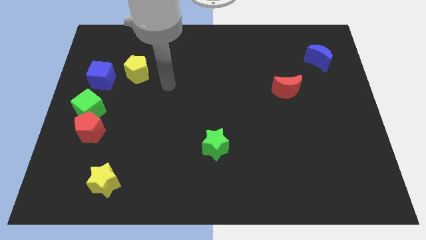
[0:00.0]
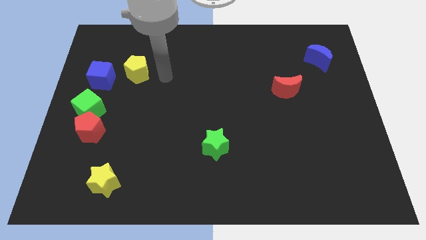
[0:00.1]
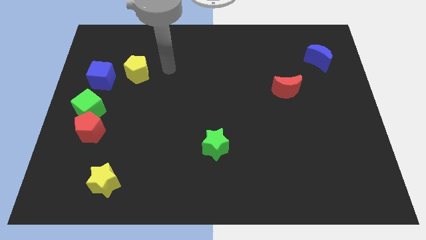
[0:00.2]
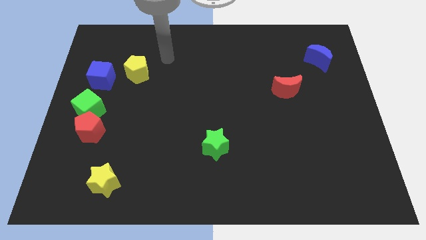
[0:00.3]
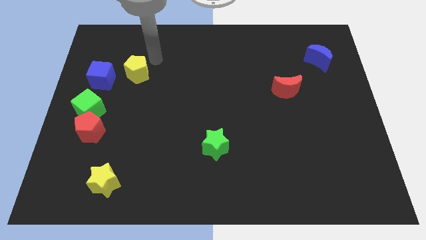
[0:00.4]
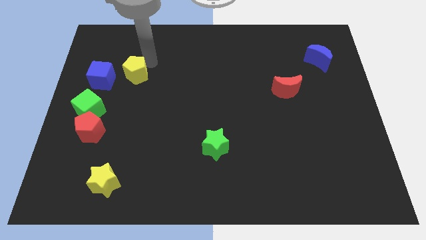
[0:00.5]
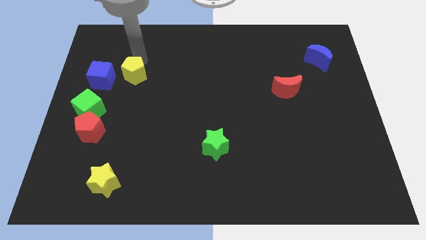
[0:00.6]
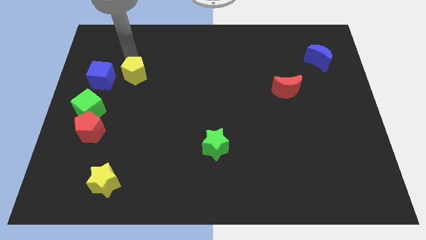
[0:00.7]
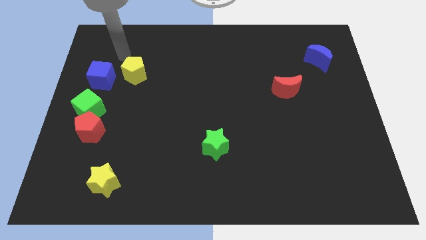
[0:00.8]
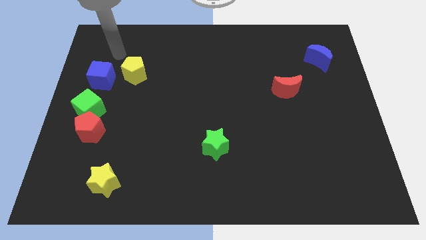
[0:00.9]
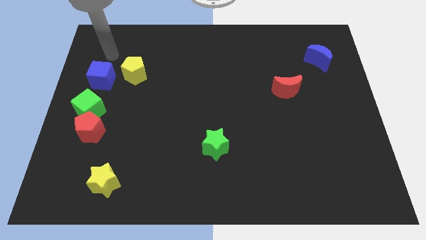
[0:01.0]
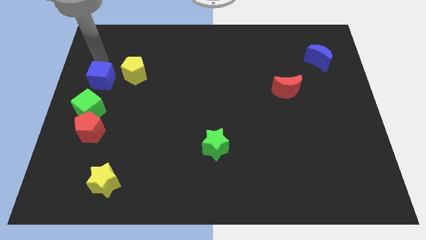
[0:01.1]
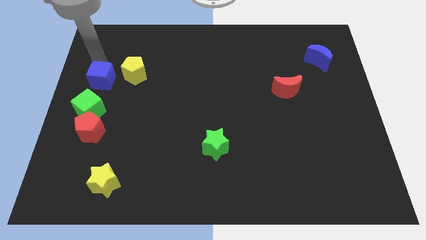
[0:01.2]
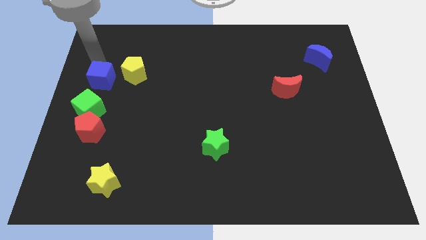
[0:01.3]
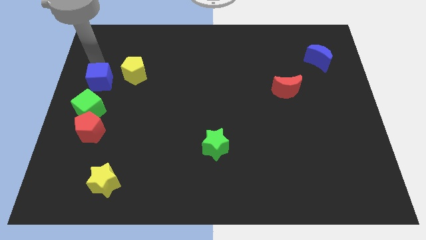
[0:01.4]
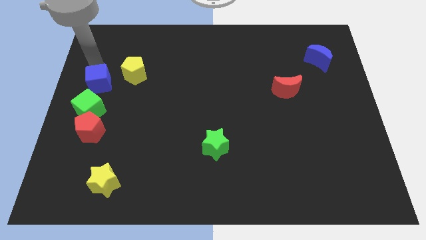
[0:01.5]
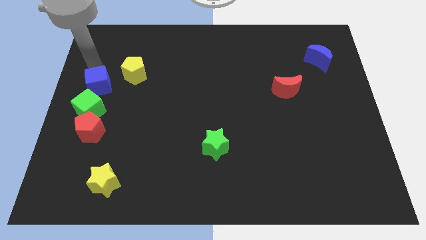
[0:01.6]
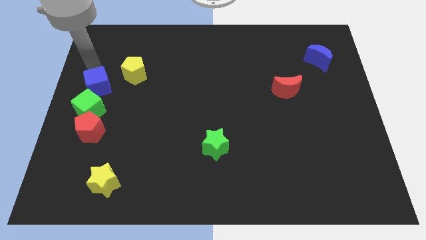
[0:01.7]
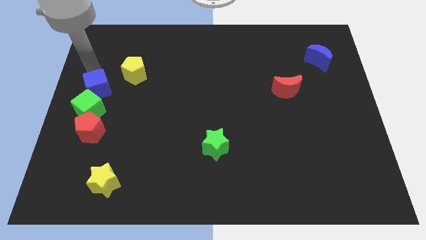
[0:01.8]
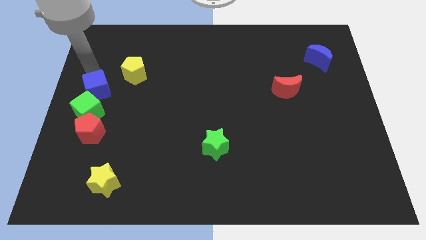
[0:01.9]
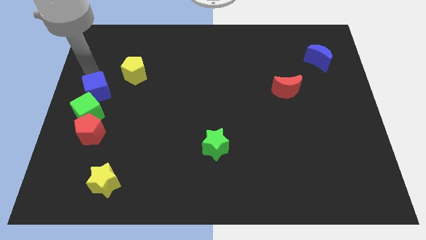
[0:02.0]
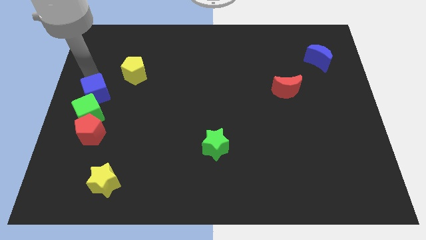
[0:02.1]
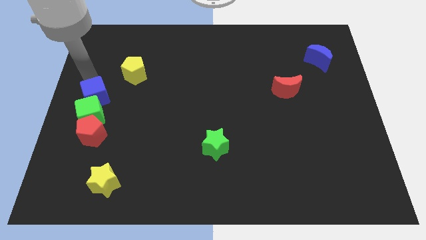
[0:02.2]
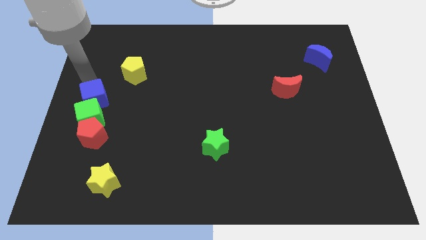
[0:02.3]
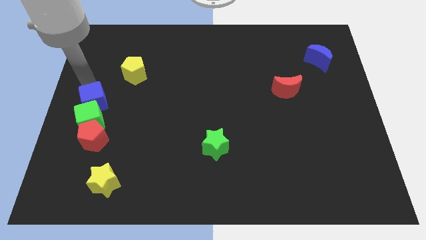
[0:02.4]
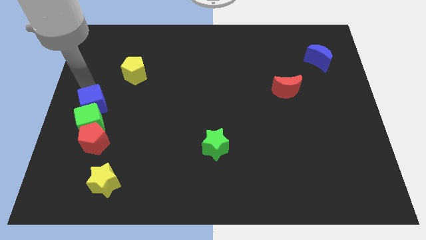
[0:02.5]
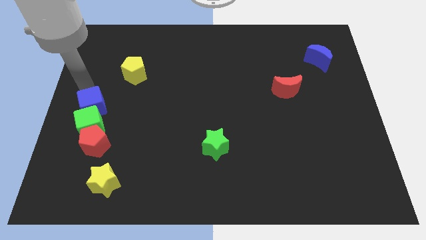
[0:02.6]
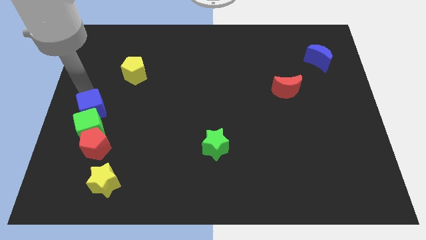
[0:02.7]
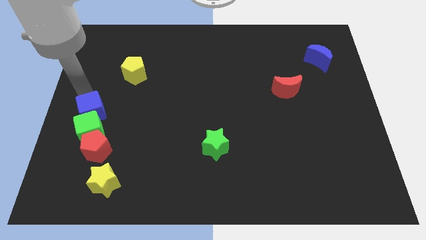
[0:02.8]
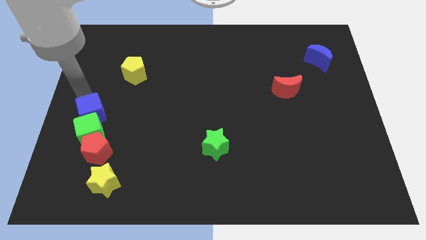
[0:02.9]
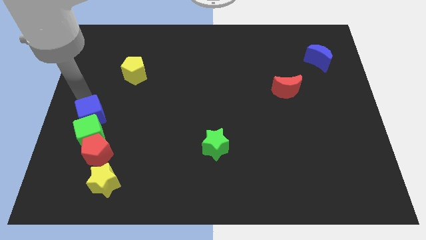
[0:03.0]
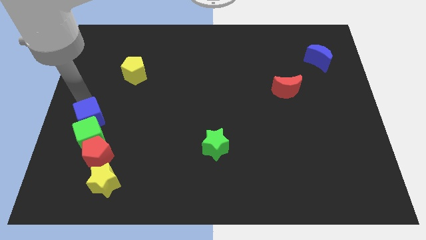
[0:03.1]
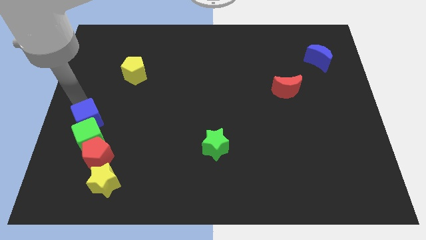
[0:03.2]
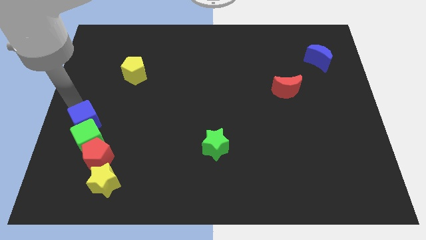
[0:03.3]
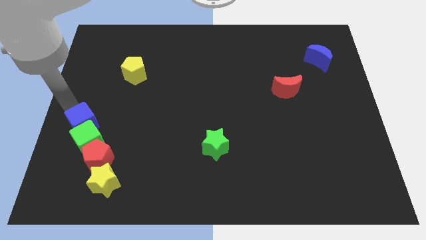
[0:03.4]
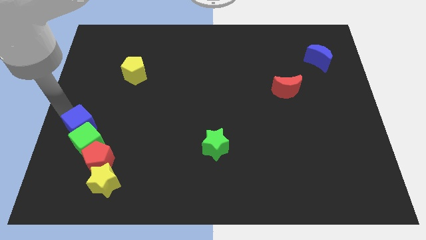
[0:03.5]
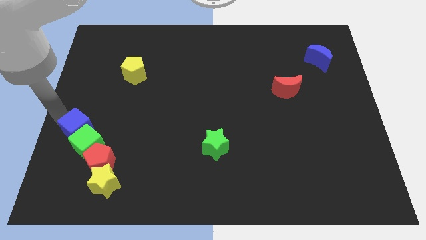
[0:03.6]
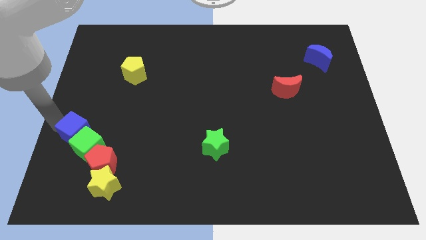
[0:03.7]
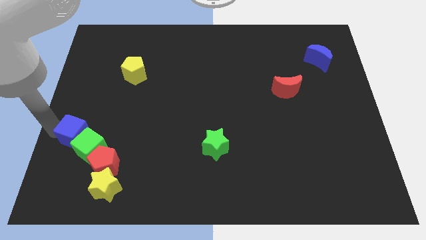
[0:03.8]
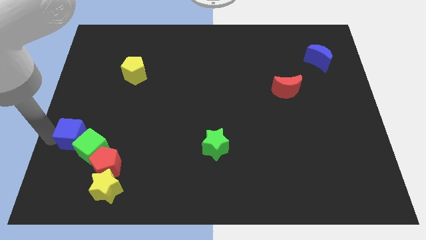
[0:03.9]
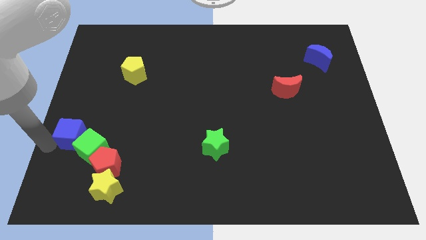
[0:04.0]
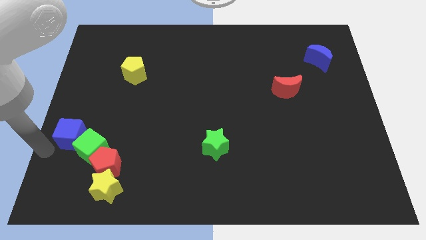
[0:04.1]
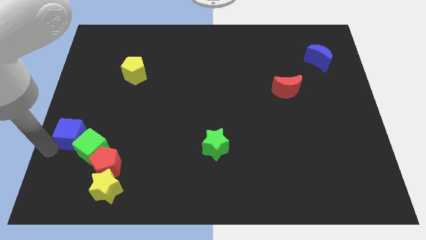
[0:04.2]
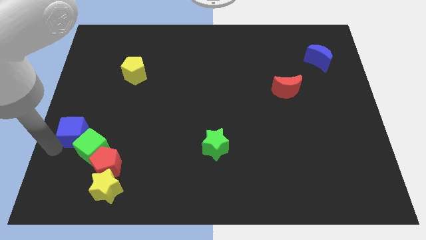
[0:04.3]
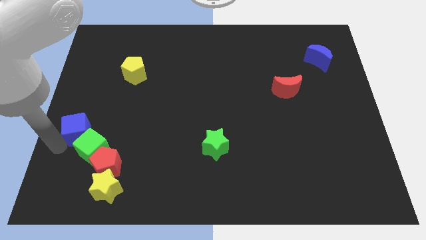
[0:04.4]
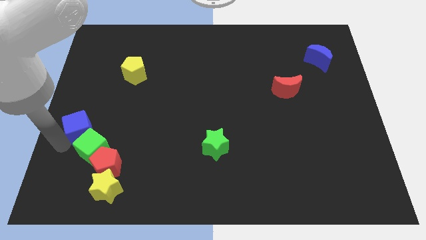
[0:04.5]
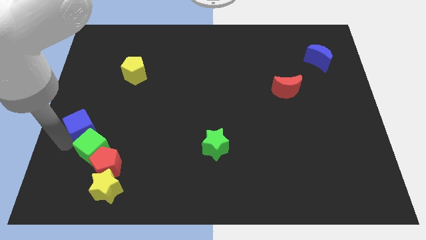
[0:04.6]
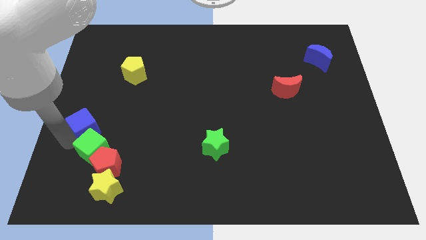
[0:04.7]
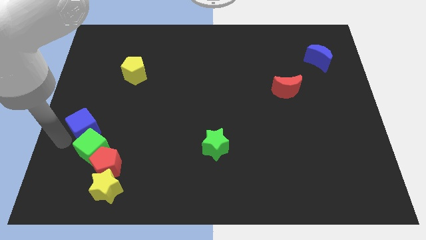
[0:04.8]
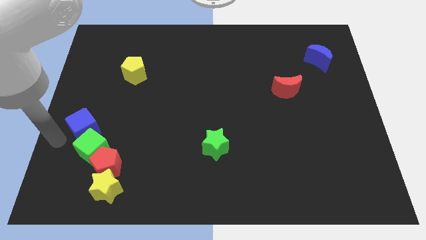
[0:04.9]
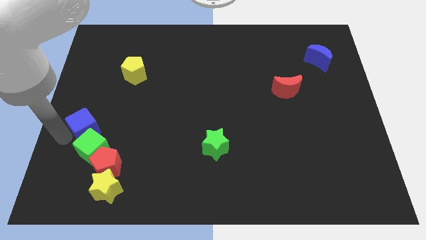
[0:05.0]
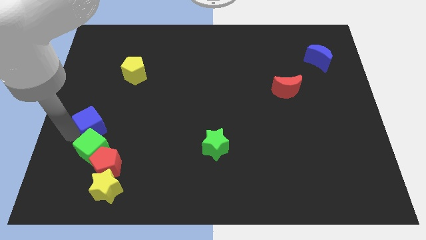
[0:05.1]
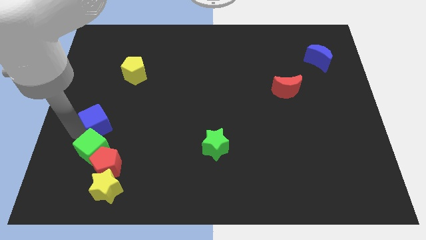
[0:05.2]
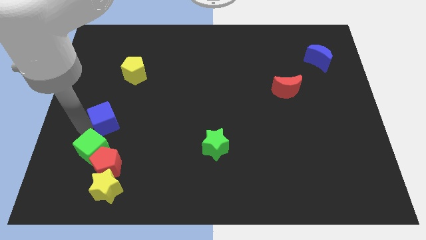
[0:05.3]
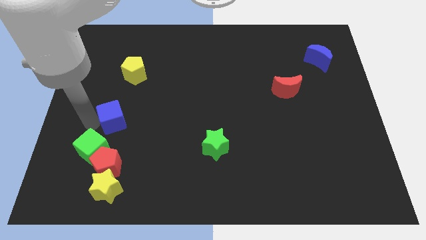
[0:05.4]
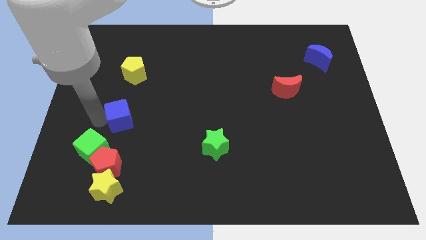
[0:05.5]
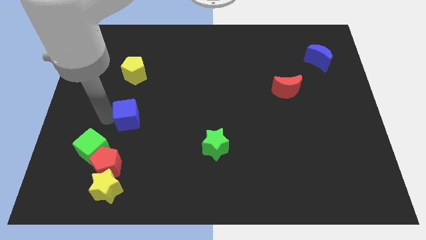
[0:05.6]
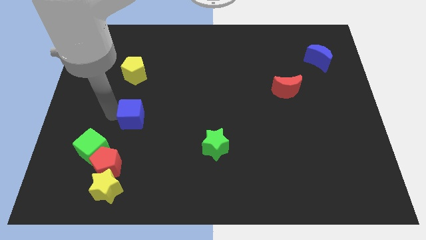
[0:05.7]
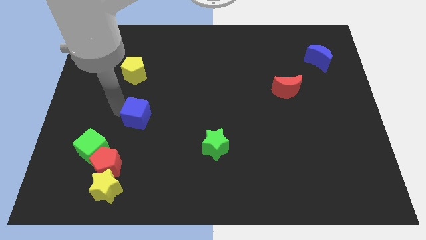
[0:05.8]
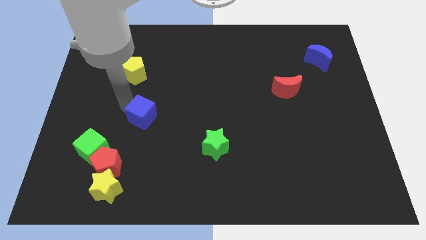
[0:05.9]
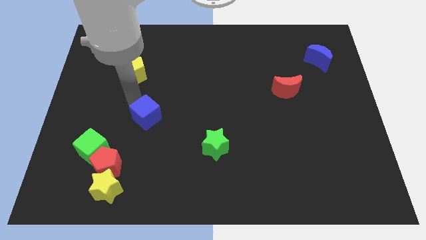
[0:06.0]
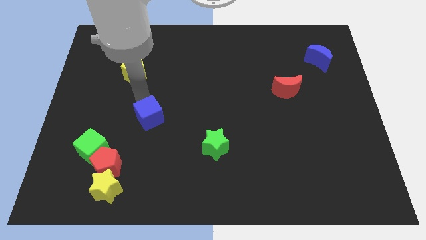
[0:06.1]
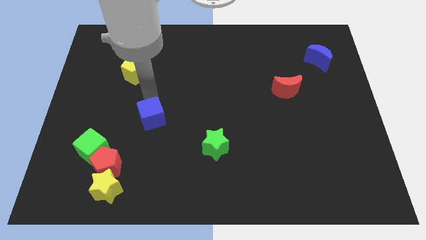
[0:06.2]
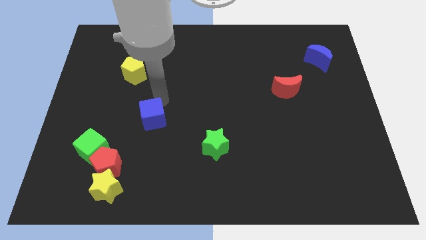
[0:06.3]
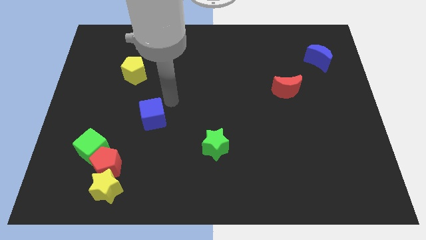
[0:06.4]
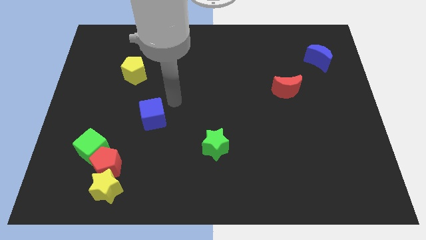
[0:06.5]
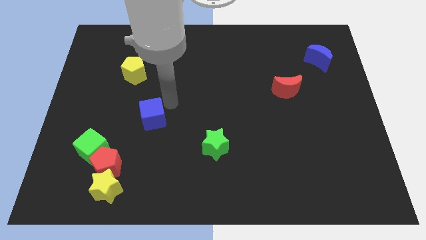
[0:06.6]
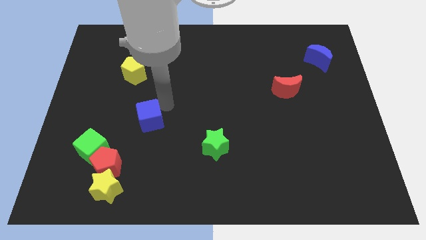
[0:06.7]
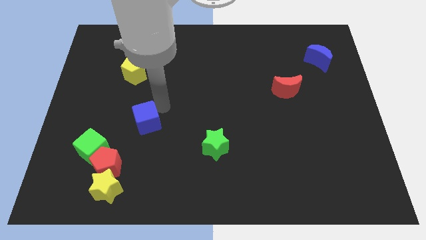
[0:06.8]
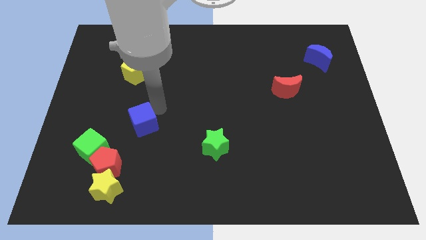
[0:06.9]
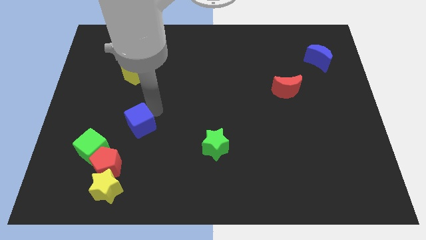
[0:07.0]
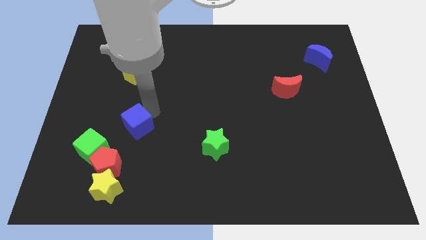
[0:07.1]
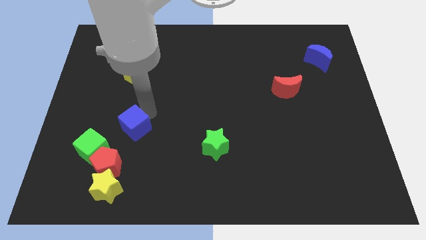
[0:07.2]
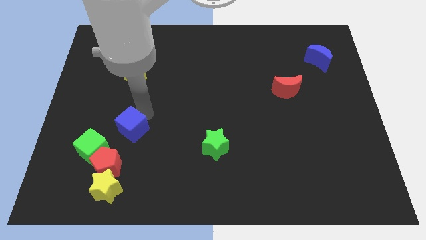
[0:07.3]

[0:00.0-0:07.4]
move the blue cube above the yellow star
